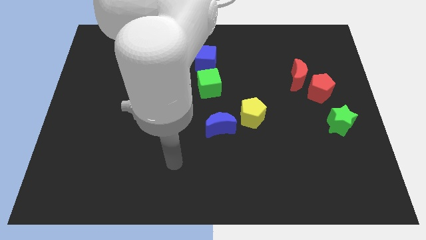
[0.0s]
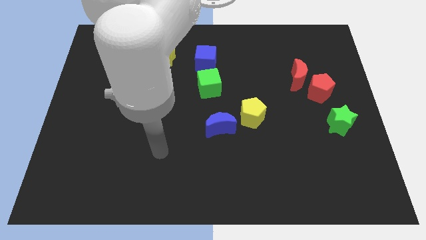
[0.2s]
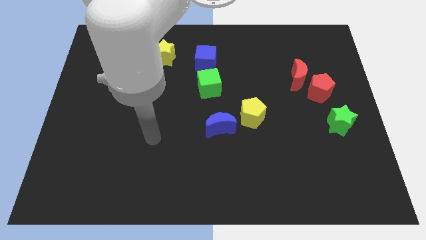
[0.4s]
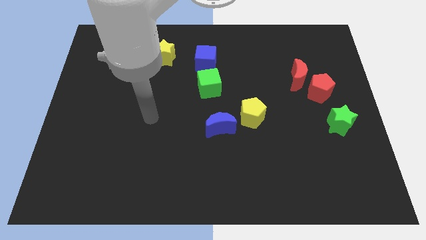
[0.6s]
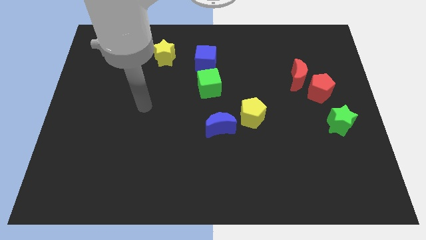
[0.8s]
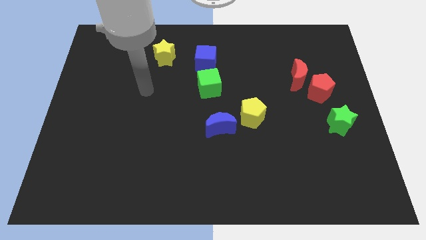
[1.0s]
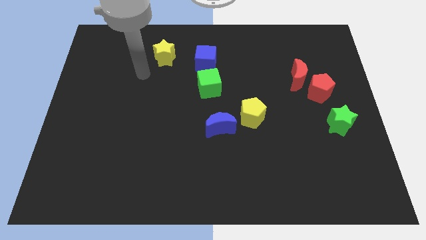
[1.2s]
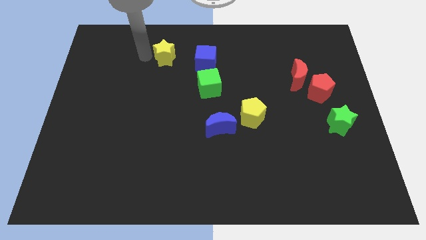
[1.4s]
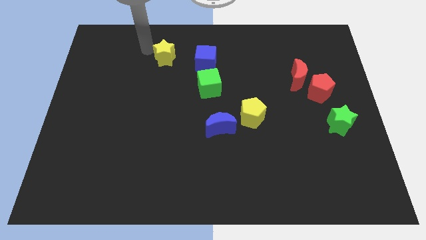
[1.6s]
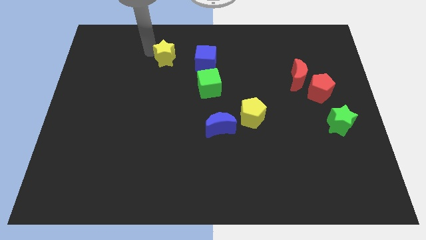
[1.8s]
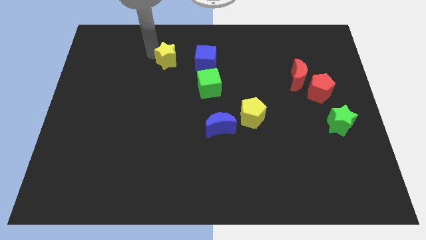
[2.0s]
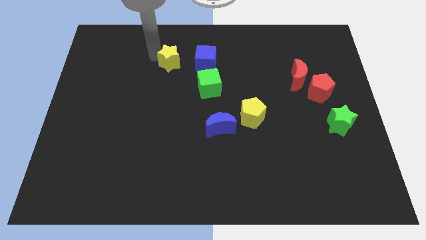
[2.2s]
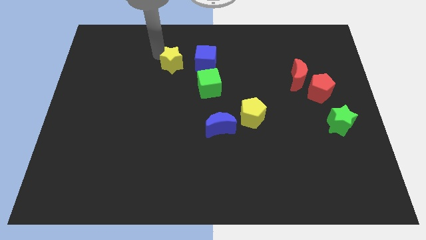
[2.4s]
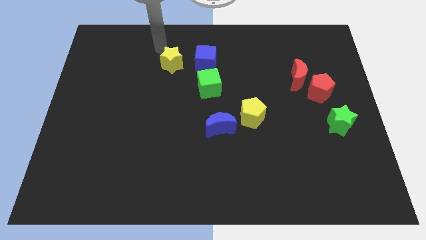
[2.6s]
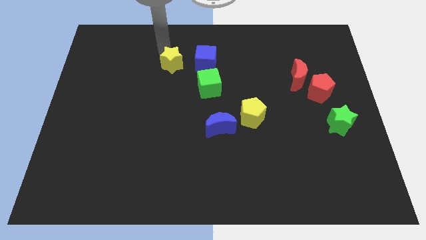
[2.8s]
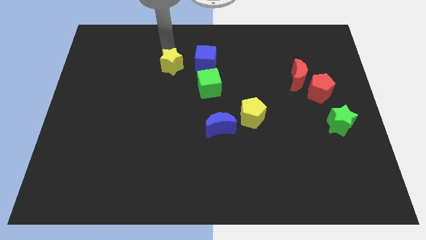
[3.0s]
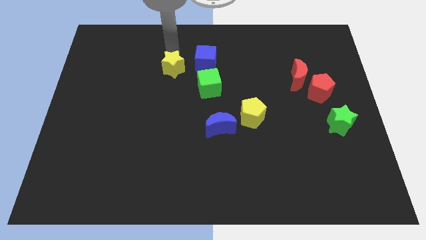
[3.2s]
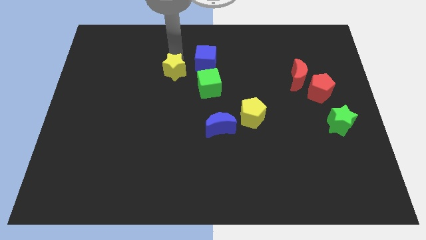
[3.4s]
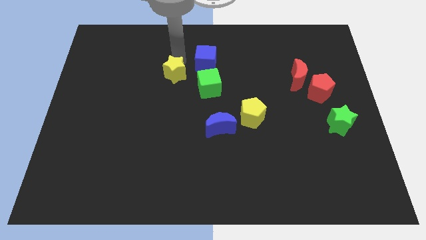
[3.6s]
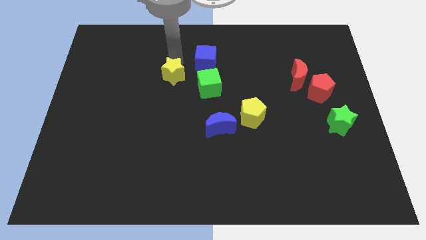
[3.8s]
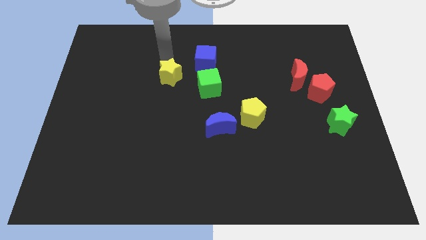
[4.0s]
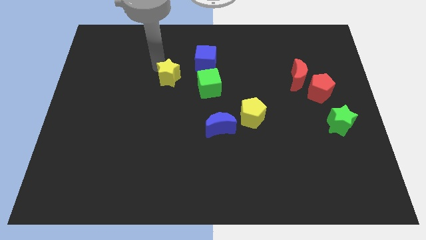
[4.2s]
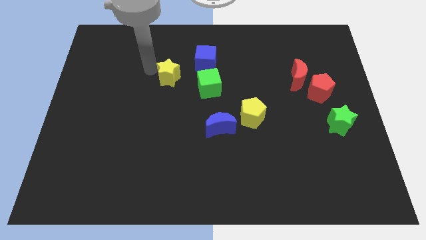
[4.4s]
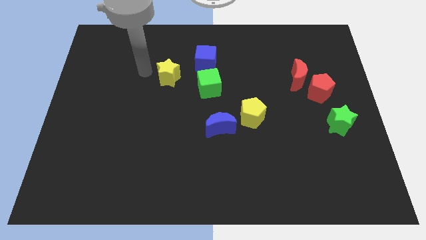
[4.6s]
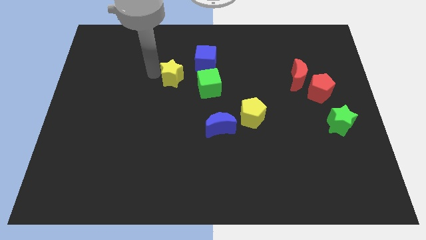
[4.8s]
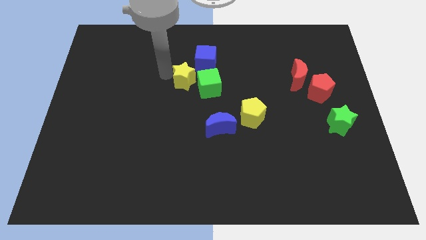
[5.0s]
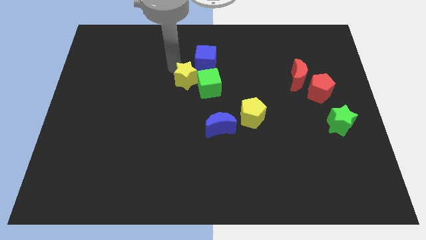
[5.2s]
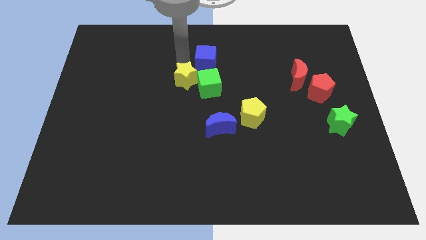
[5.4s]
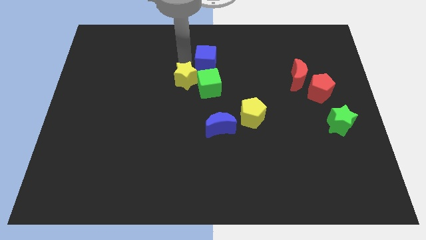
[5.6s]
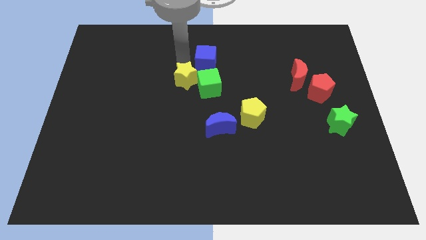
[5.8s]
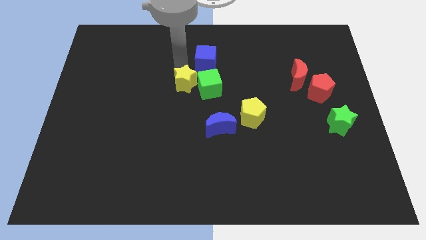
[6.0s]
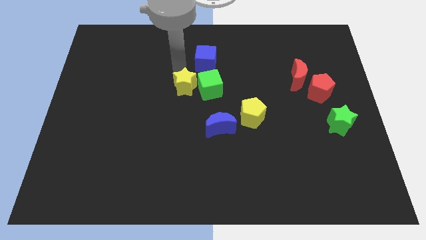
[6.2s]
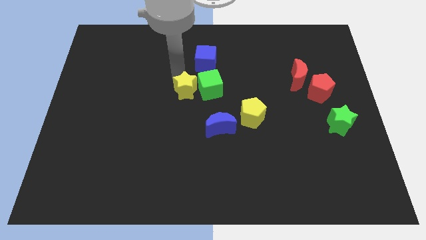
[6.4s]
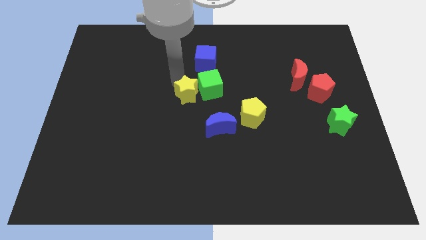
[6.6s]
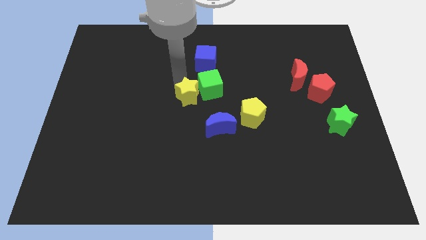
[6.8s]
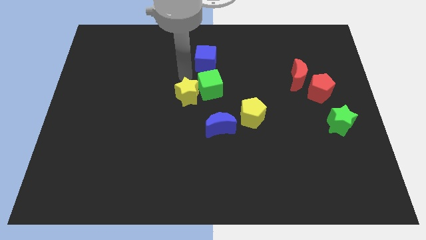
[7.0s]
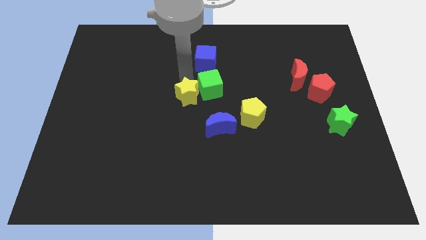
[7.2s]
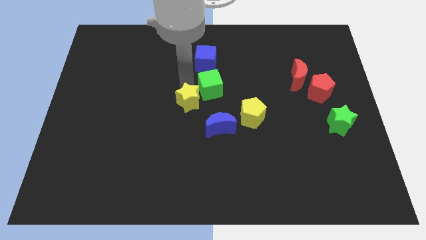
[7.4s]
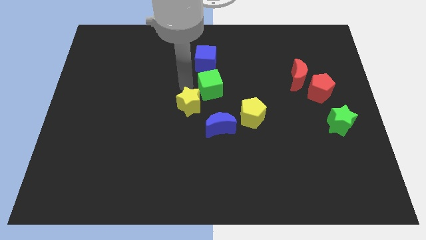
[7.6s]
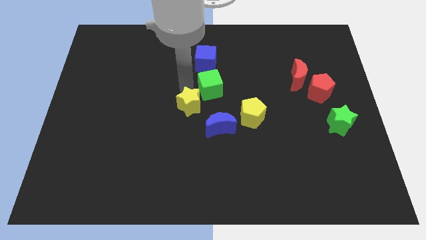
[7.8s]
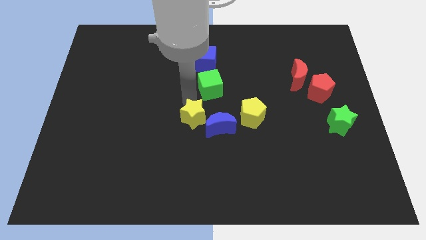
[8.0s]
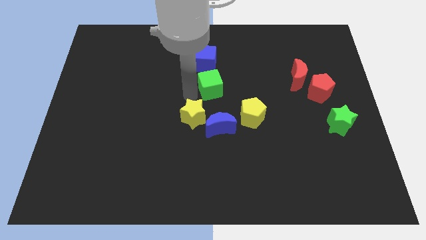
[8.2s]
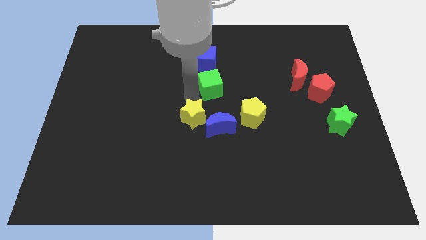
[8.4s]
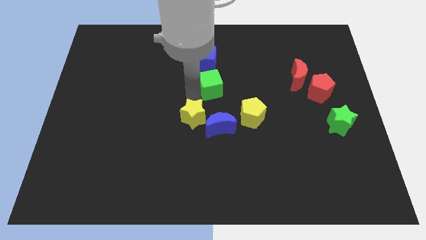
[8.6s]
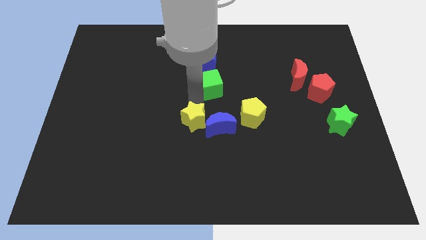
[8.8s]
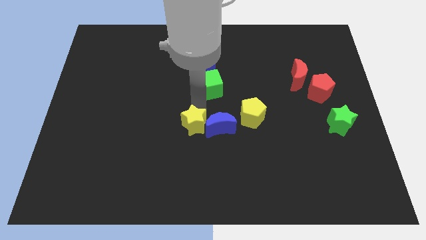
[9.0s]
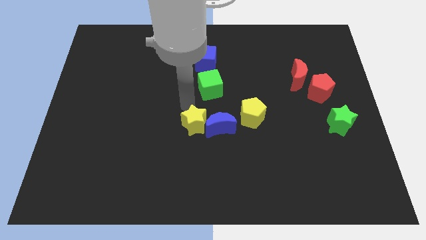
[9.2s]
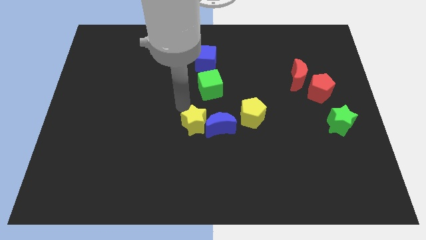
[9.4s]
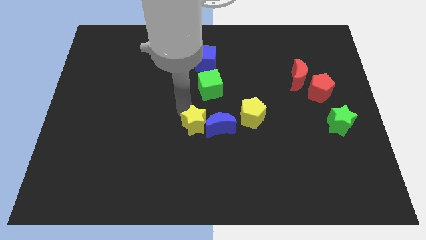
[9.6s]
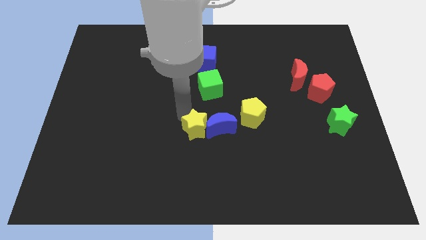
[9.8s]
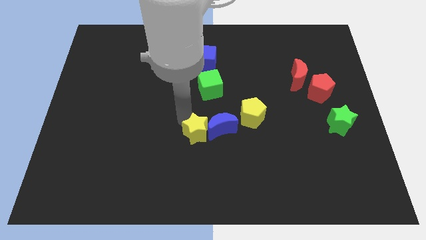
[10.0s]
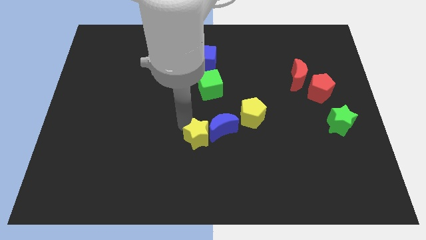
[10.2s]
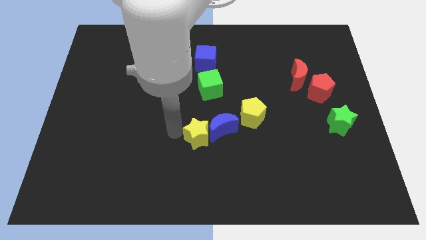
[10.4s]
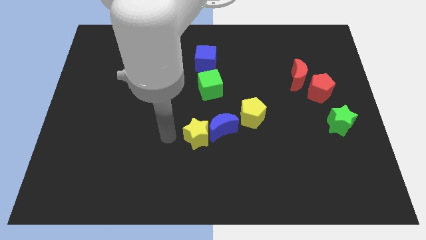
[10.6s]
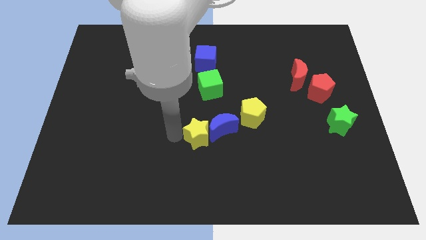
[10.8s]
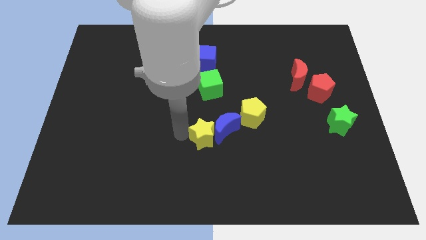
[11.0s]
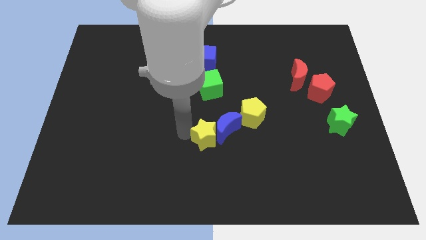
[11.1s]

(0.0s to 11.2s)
move the yellow star to the bottom left of the yellow pentagon
